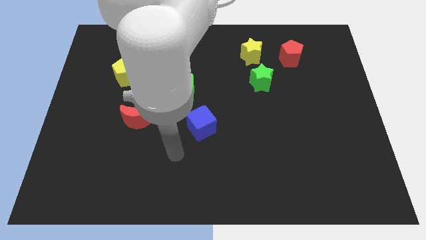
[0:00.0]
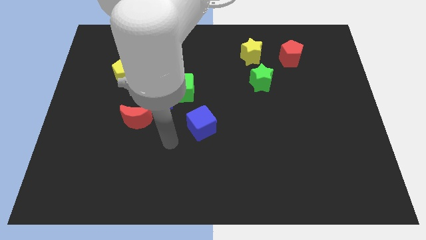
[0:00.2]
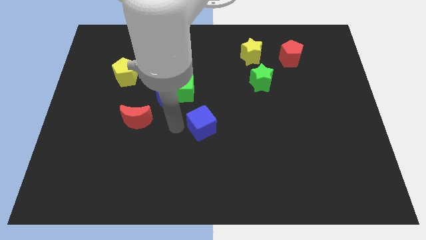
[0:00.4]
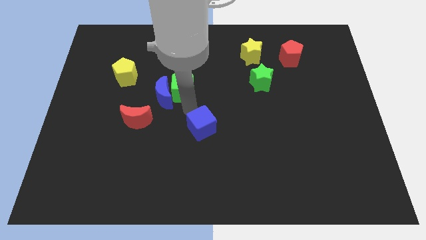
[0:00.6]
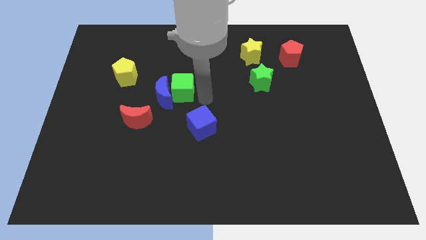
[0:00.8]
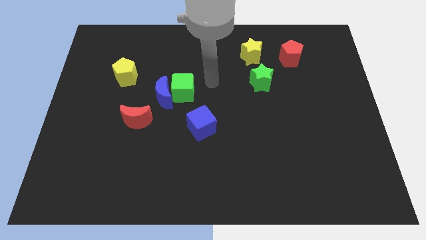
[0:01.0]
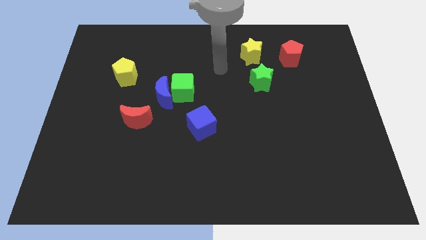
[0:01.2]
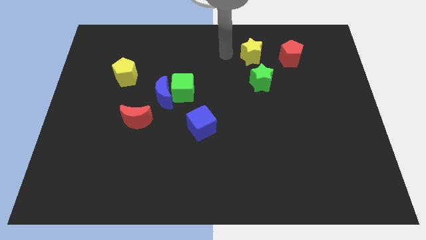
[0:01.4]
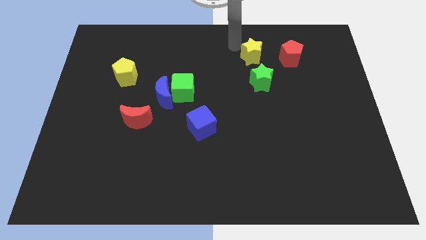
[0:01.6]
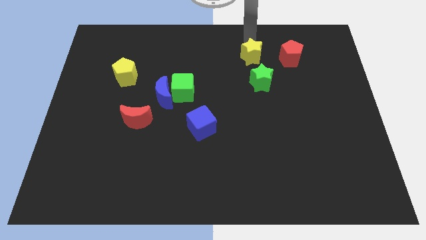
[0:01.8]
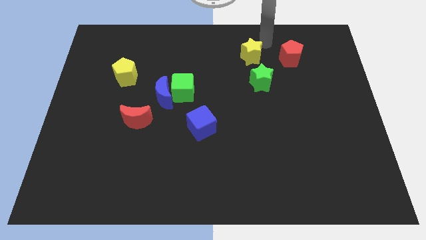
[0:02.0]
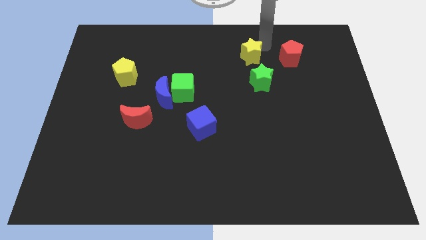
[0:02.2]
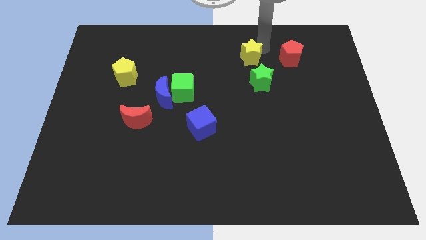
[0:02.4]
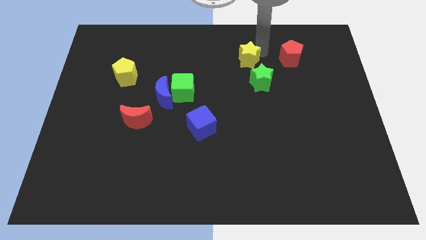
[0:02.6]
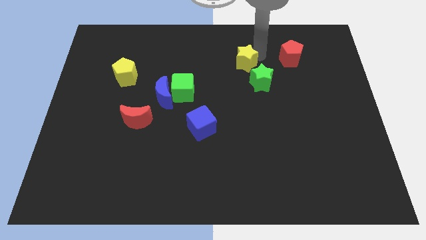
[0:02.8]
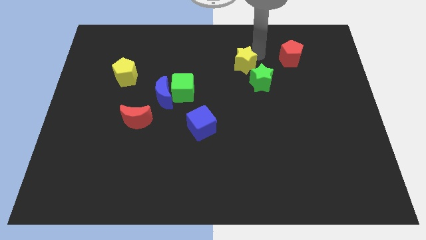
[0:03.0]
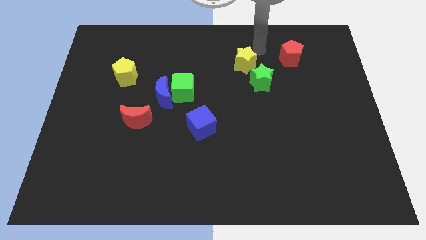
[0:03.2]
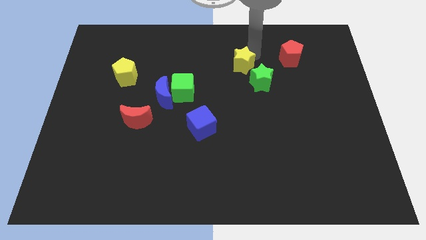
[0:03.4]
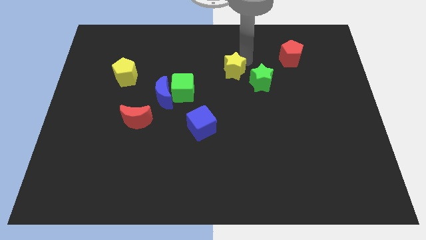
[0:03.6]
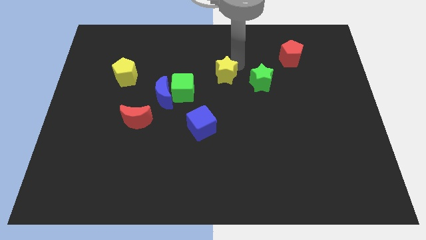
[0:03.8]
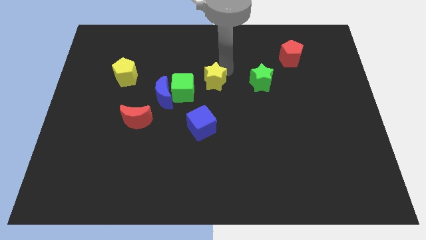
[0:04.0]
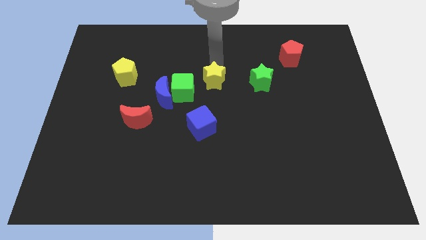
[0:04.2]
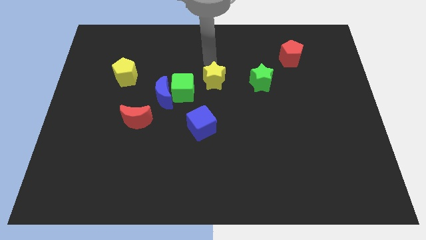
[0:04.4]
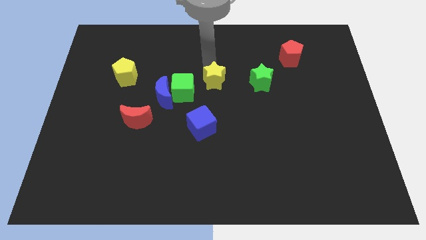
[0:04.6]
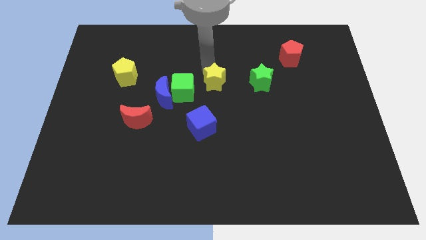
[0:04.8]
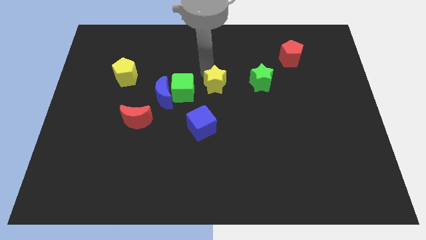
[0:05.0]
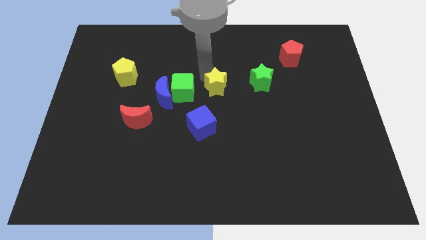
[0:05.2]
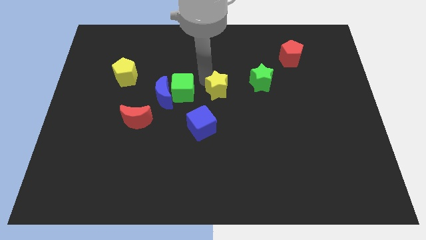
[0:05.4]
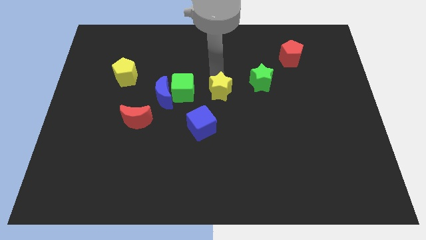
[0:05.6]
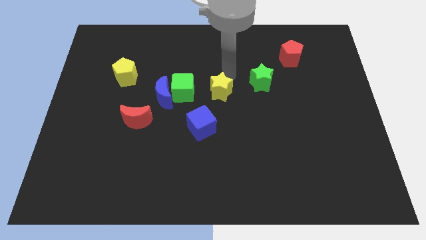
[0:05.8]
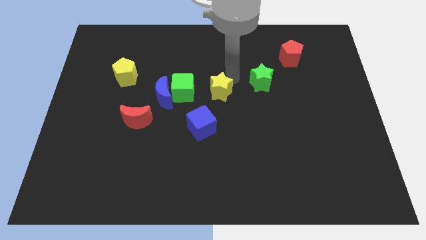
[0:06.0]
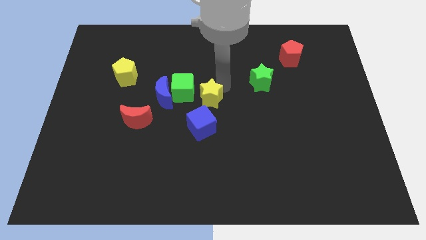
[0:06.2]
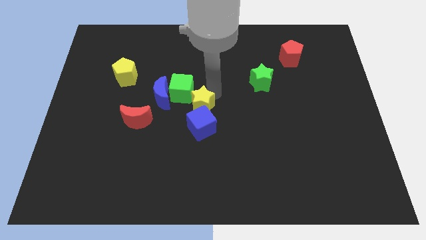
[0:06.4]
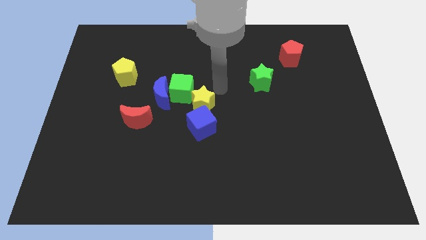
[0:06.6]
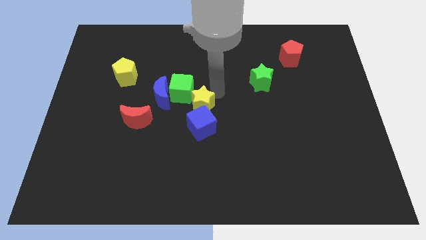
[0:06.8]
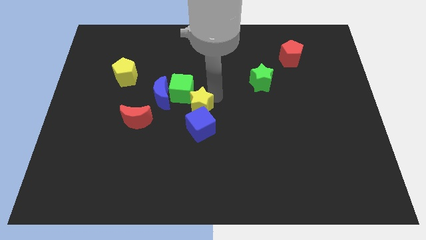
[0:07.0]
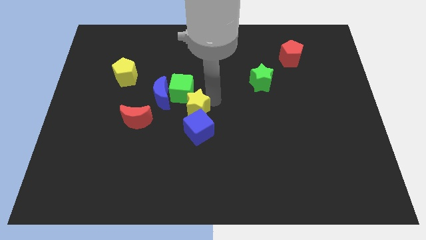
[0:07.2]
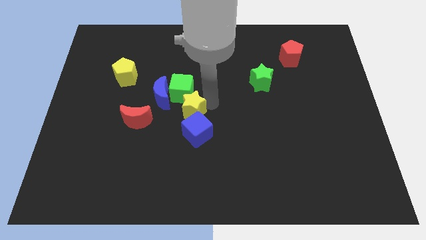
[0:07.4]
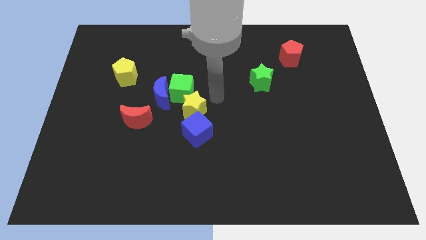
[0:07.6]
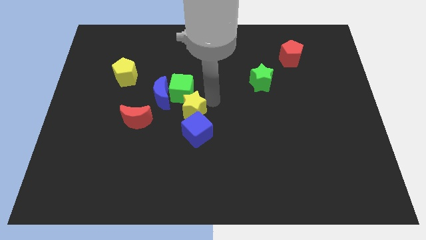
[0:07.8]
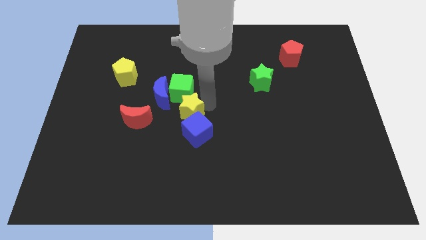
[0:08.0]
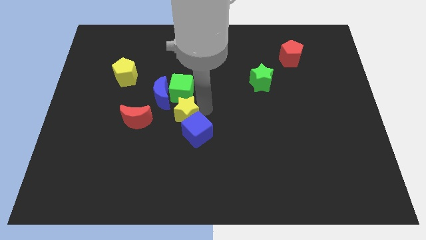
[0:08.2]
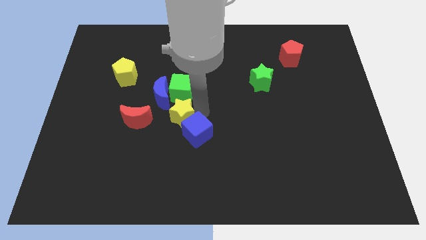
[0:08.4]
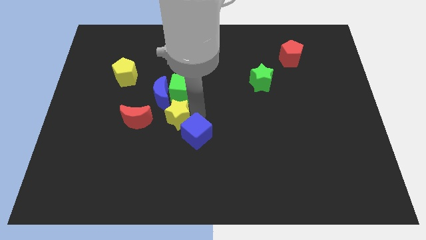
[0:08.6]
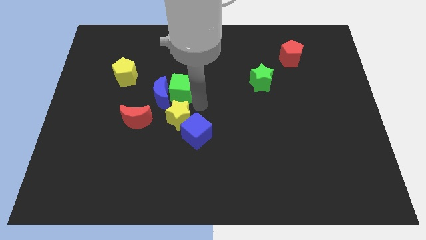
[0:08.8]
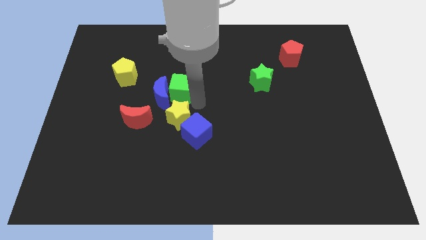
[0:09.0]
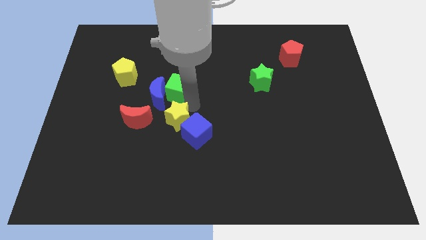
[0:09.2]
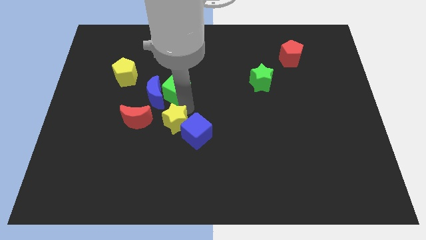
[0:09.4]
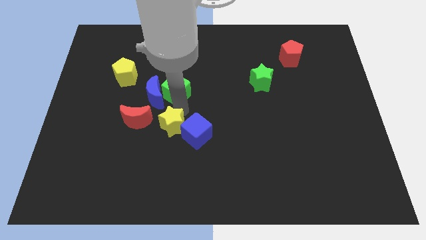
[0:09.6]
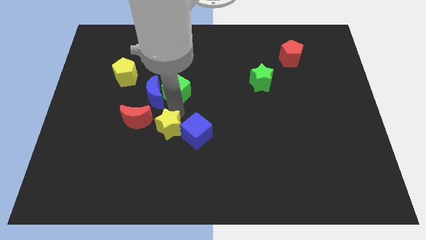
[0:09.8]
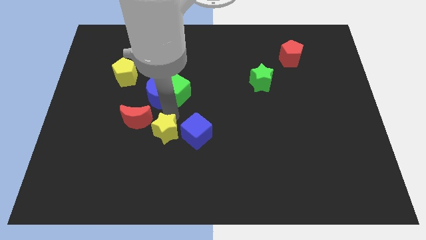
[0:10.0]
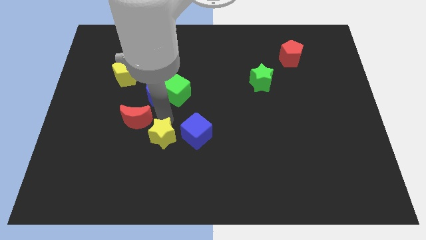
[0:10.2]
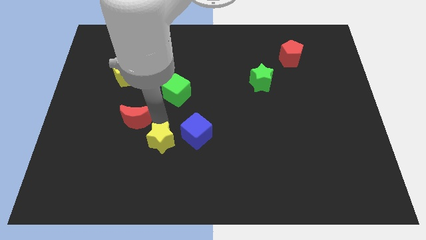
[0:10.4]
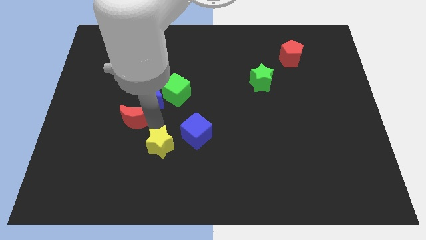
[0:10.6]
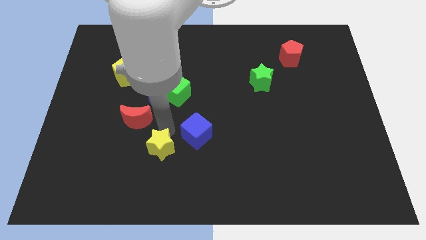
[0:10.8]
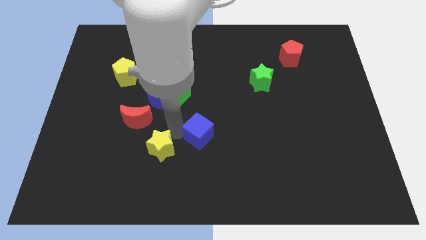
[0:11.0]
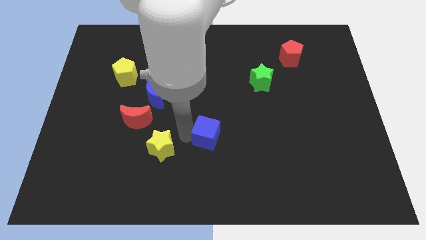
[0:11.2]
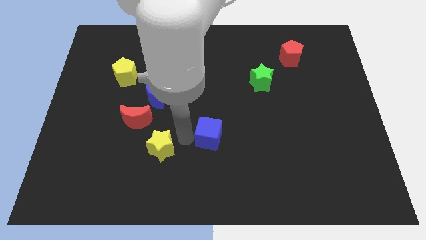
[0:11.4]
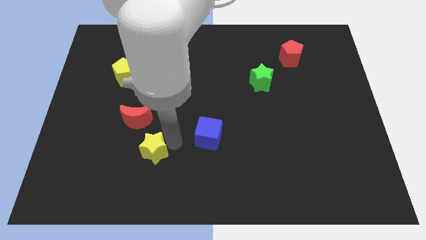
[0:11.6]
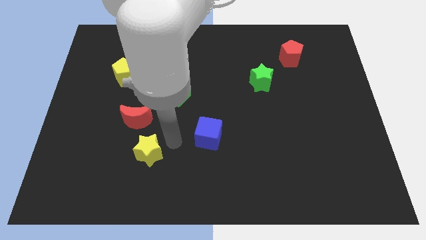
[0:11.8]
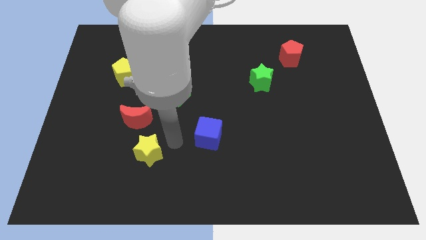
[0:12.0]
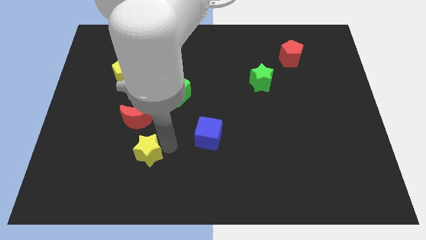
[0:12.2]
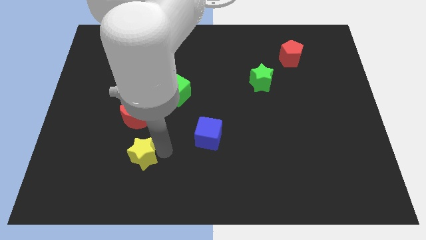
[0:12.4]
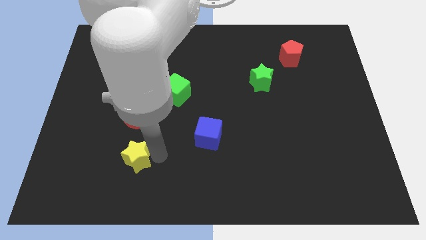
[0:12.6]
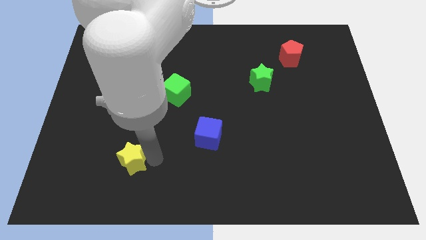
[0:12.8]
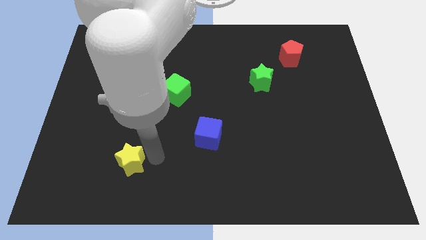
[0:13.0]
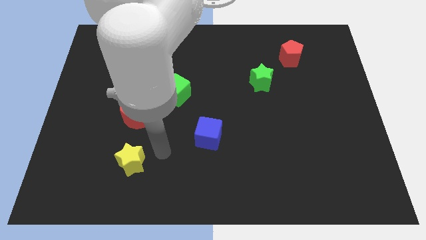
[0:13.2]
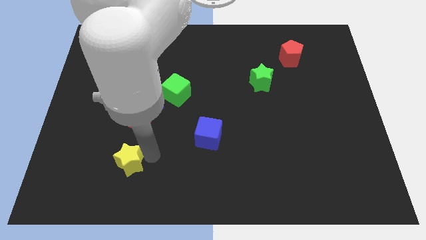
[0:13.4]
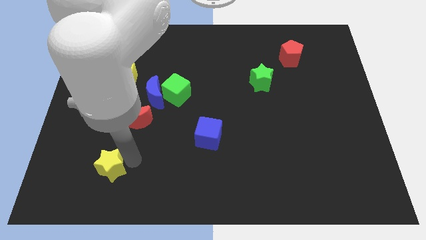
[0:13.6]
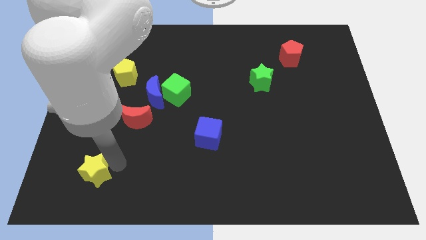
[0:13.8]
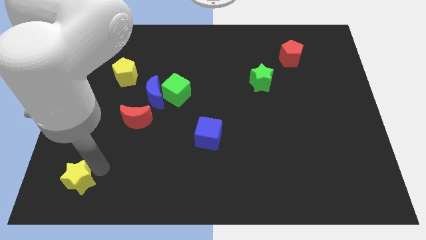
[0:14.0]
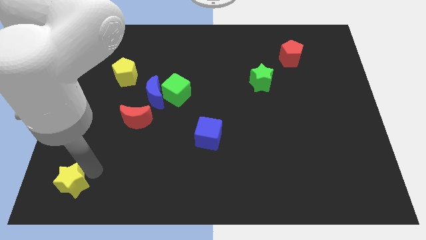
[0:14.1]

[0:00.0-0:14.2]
put the yellow star to the bottom left of the board
